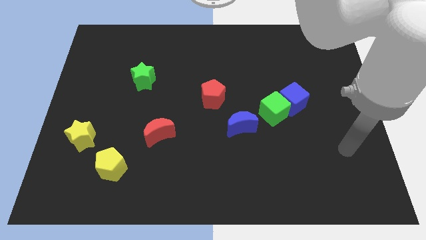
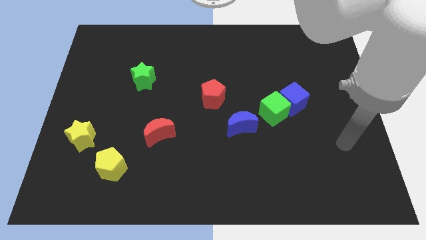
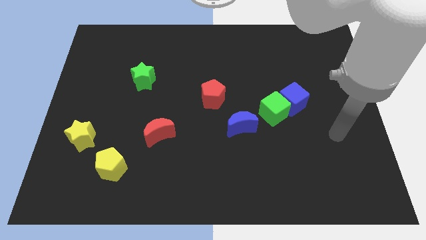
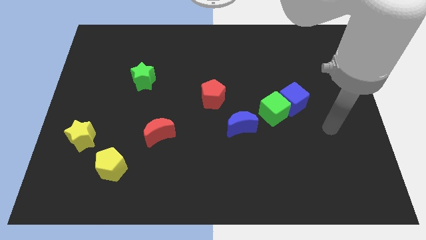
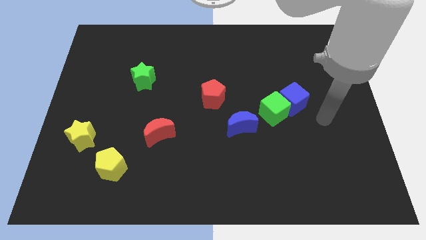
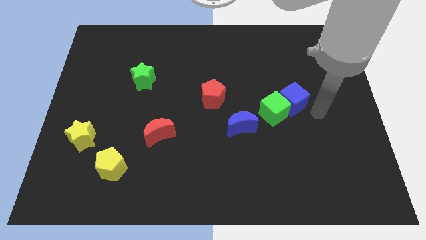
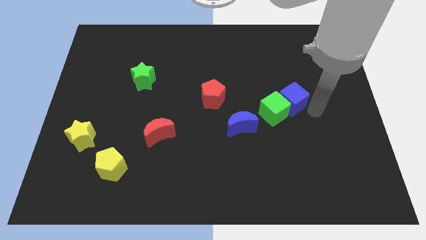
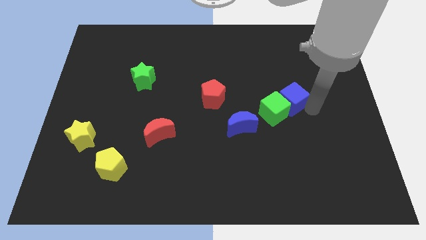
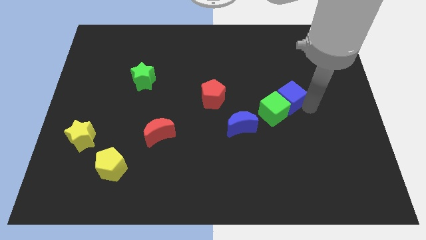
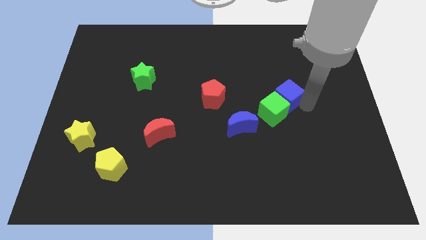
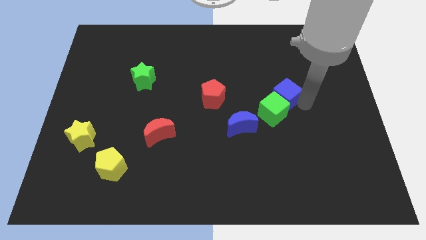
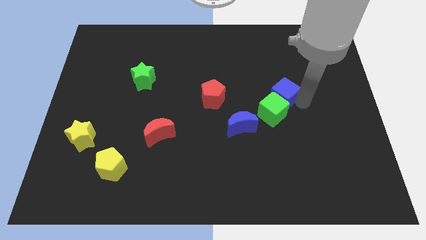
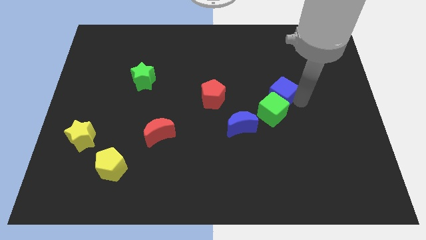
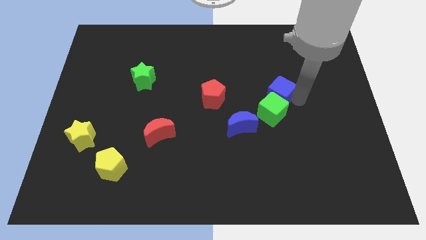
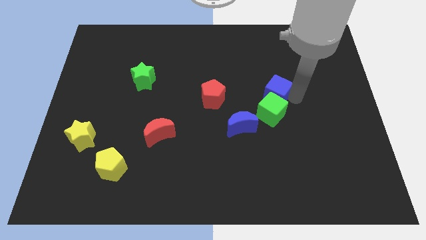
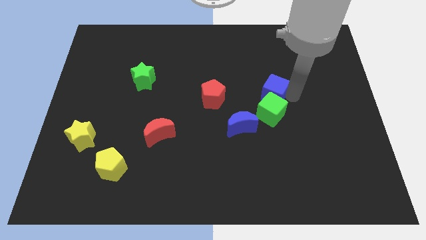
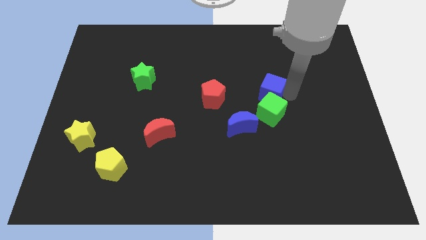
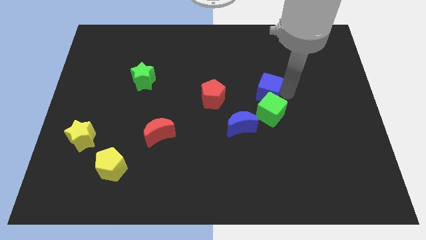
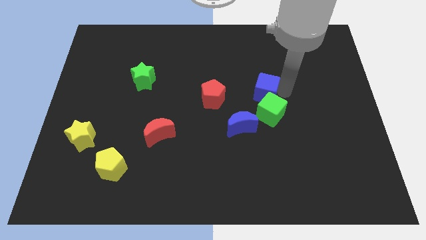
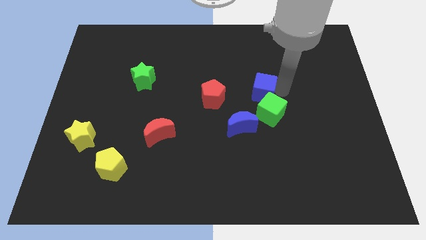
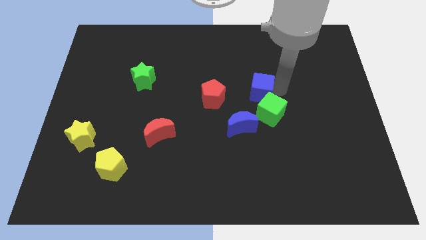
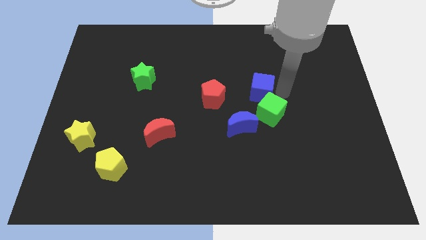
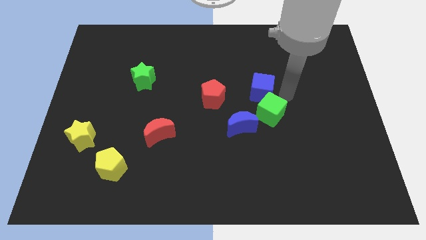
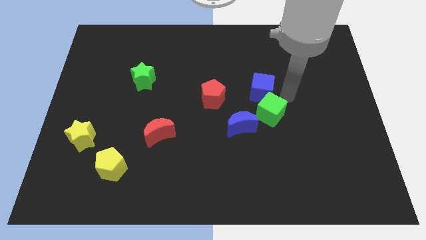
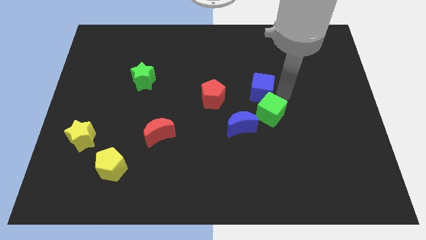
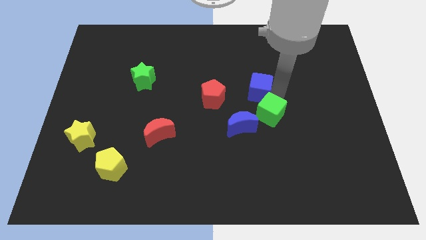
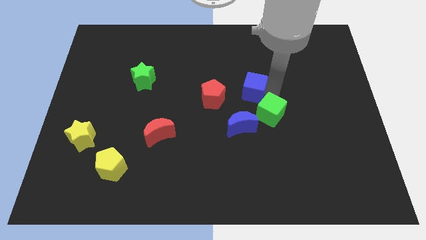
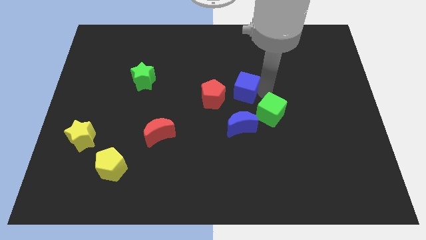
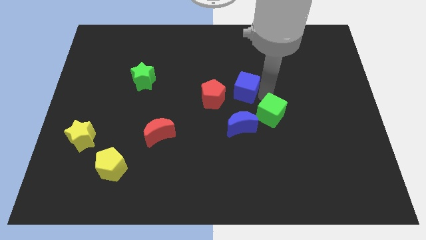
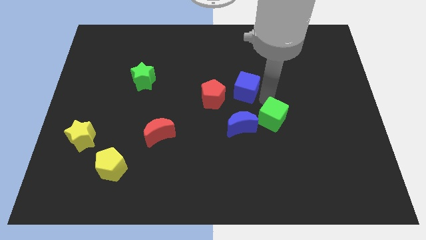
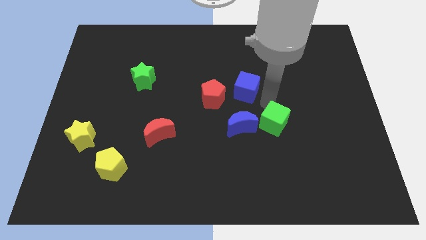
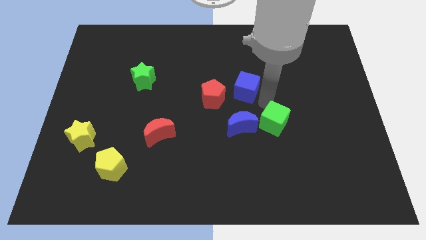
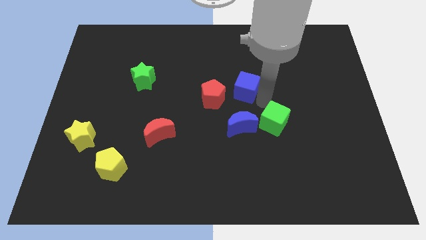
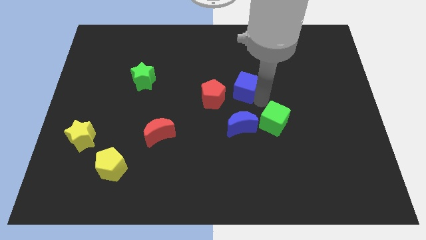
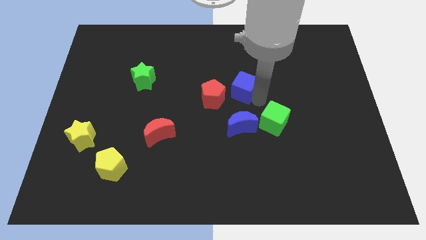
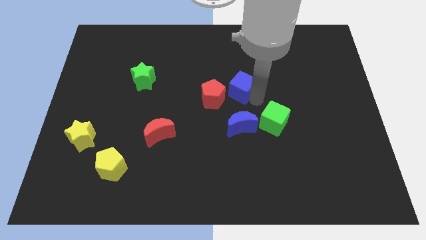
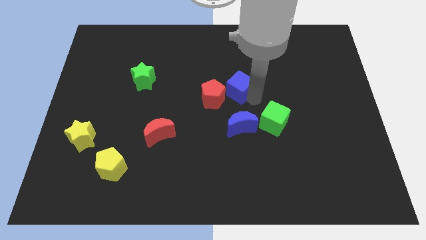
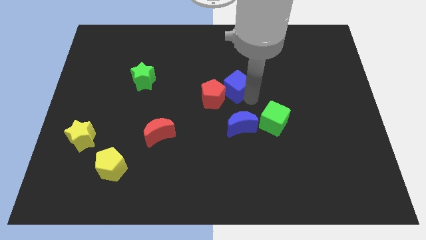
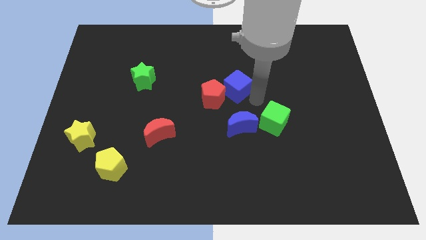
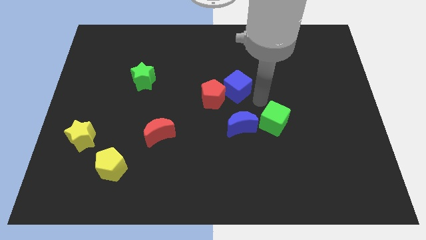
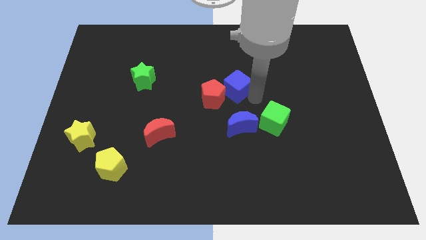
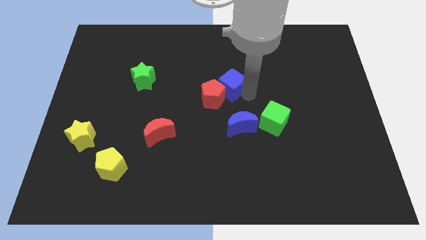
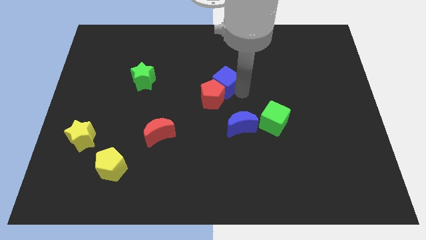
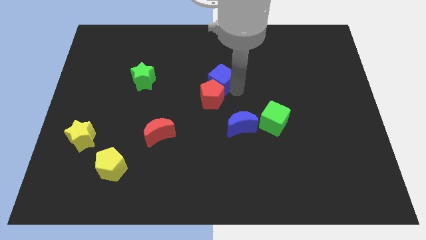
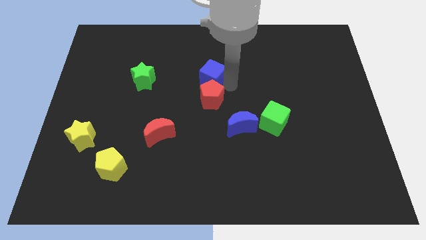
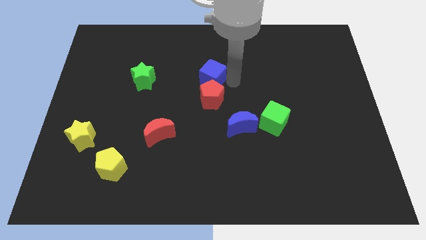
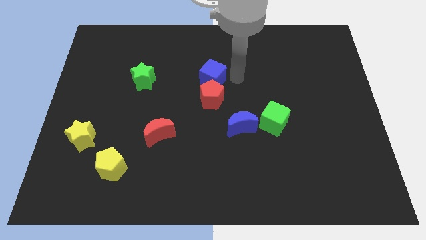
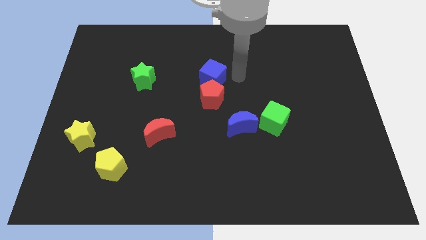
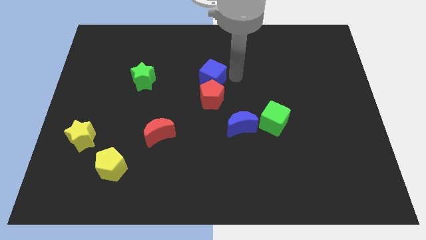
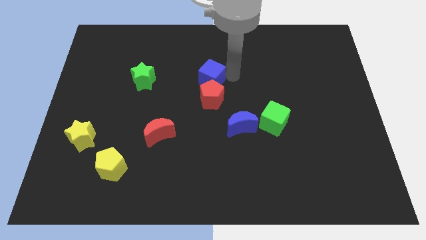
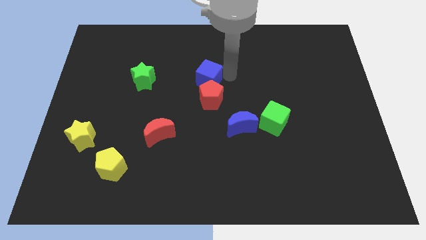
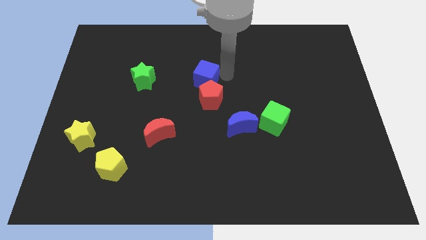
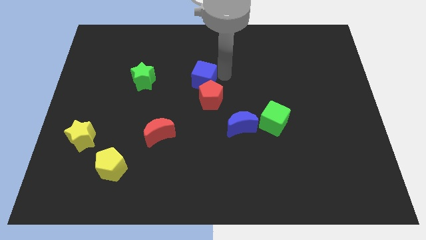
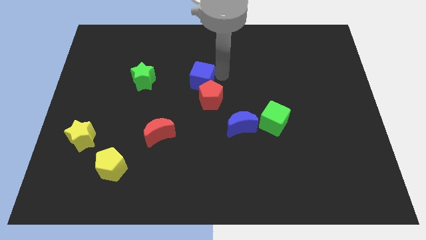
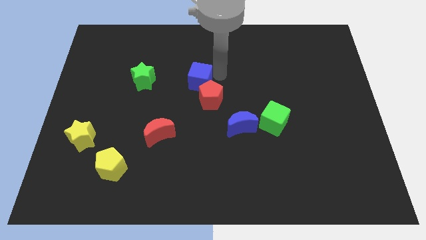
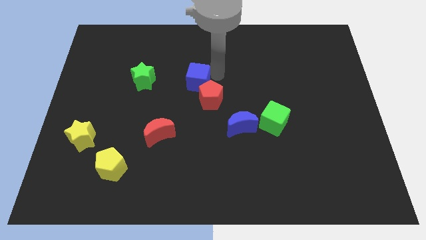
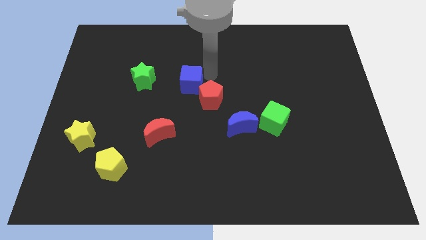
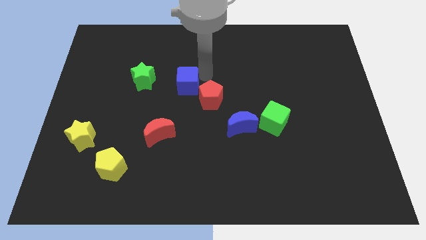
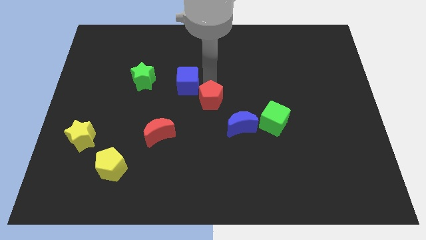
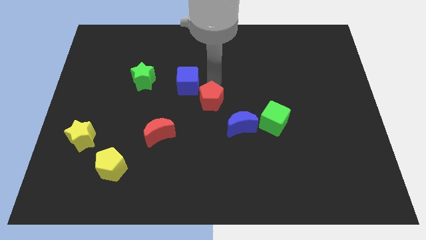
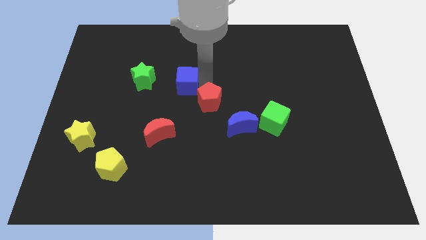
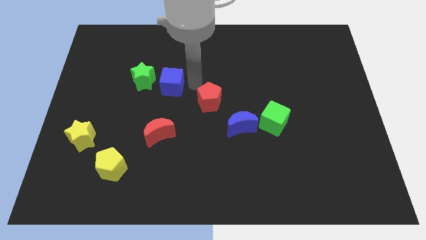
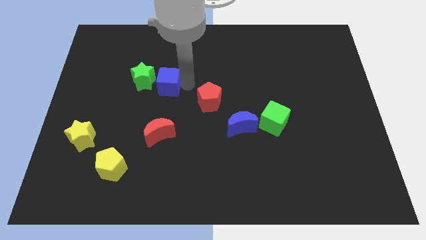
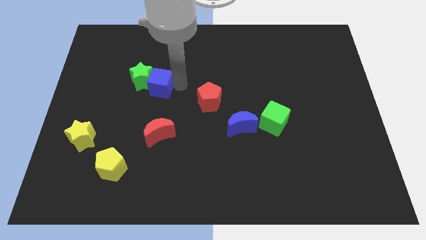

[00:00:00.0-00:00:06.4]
slide the blue cube close to the green star
